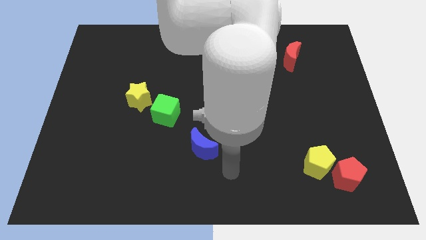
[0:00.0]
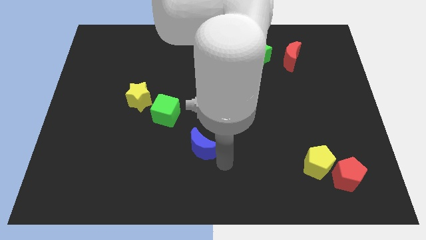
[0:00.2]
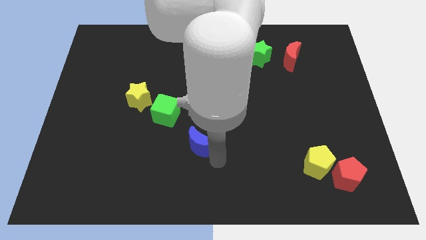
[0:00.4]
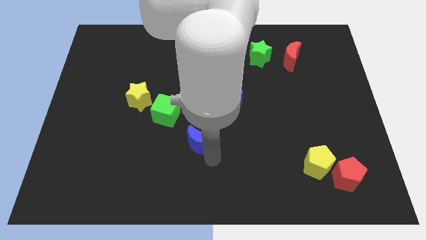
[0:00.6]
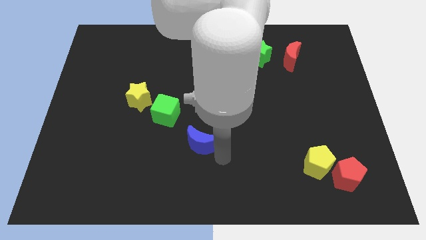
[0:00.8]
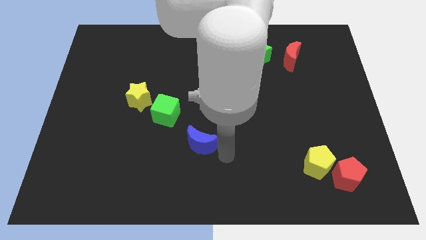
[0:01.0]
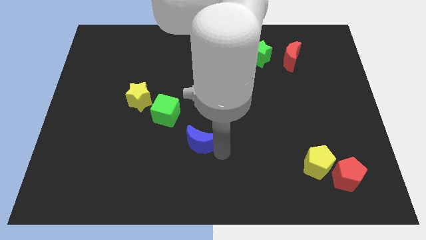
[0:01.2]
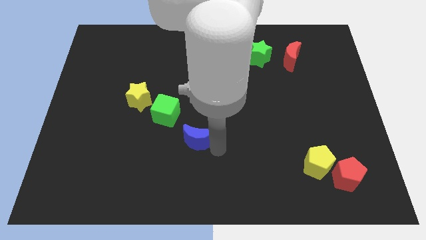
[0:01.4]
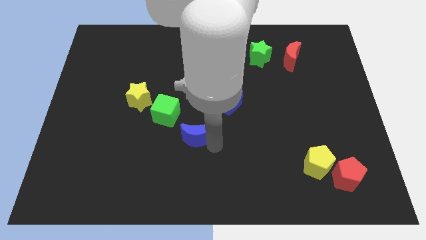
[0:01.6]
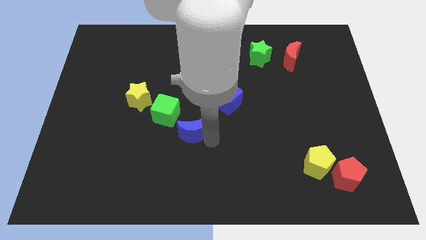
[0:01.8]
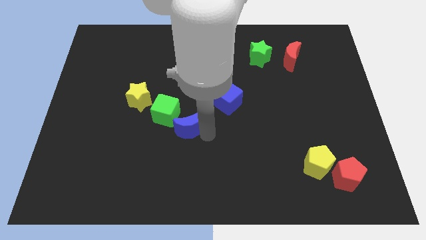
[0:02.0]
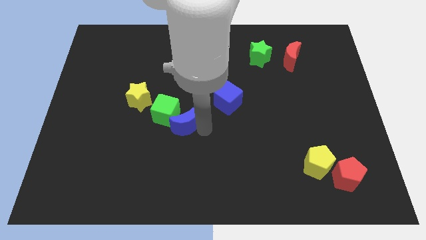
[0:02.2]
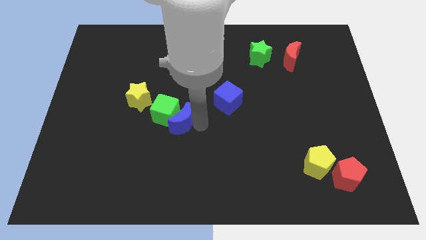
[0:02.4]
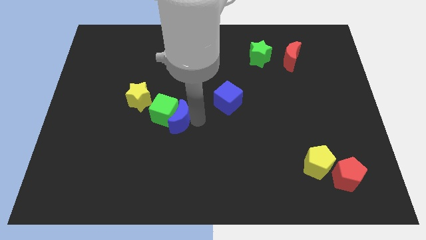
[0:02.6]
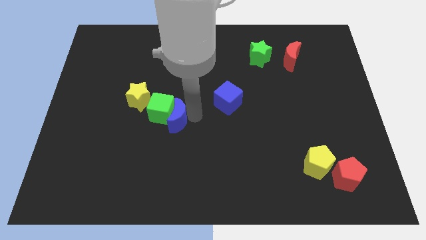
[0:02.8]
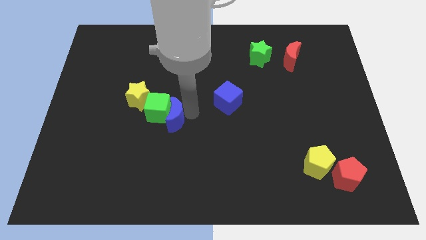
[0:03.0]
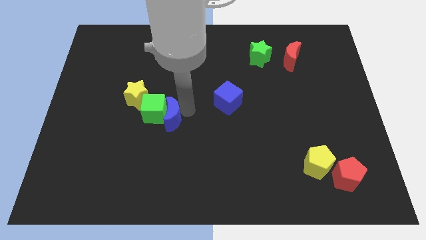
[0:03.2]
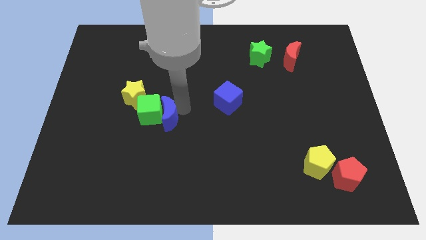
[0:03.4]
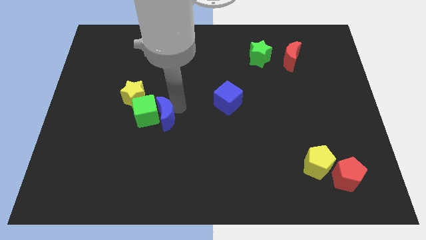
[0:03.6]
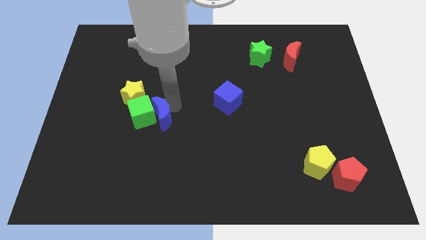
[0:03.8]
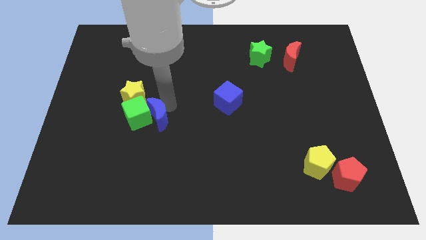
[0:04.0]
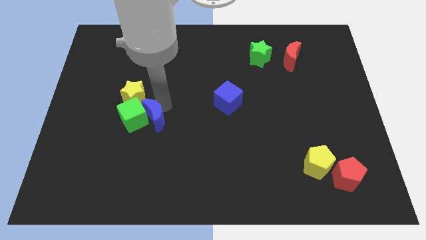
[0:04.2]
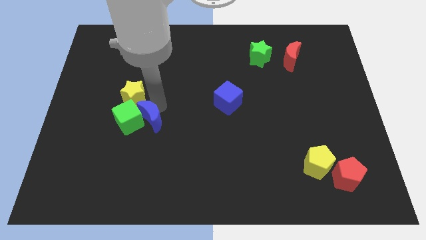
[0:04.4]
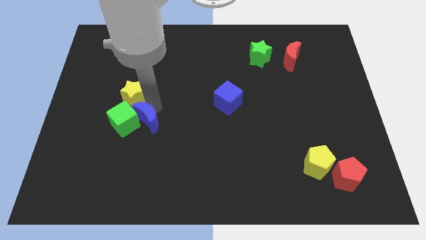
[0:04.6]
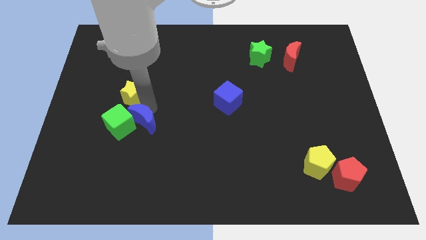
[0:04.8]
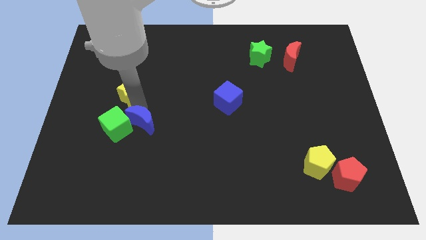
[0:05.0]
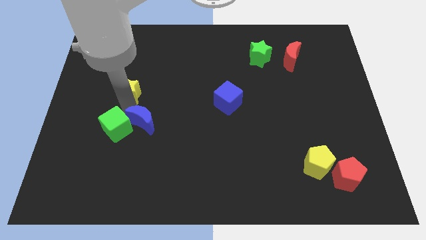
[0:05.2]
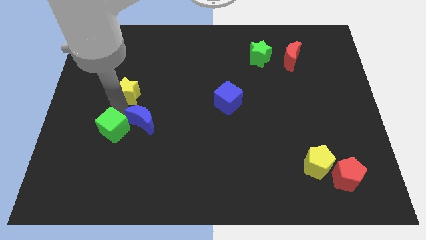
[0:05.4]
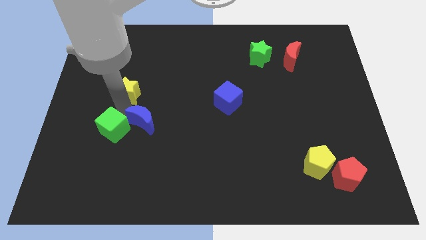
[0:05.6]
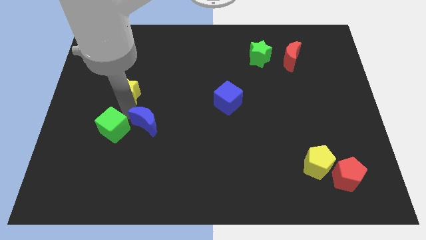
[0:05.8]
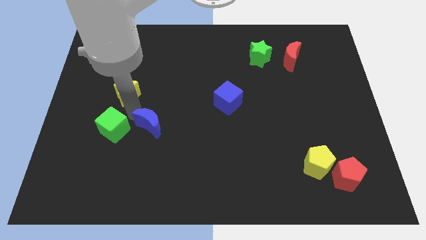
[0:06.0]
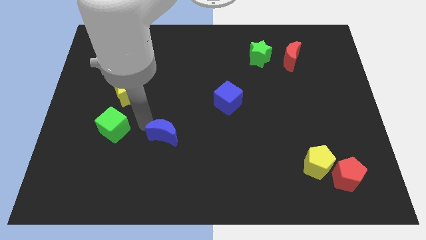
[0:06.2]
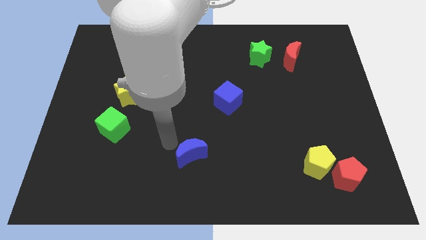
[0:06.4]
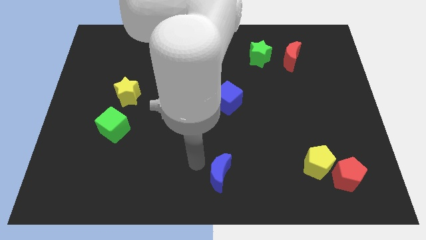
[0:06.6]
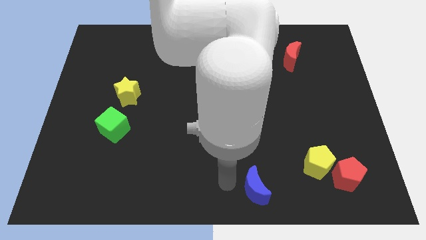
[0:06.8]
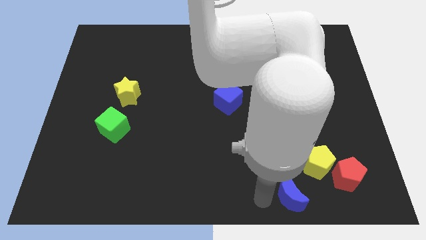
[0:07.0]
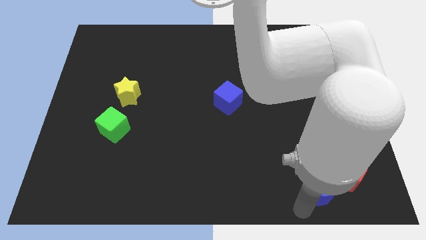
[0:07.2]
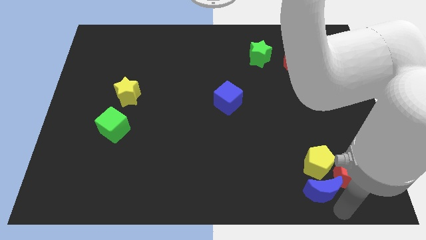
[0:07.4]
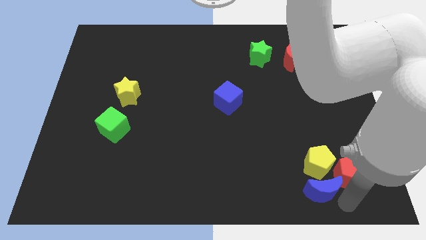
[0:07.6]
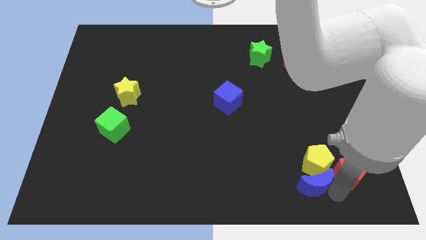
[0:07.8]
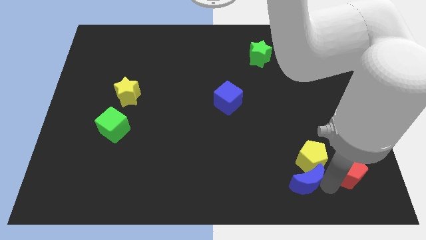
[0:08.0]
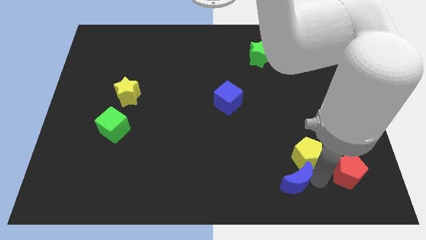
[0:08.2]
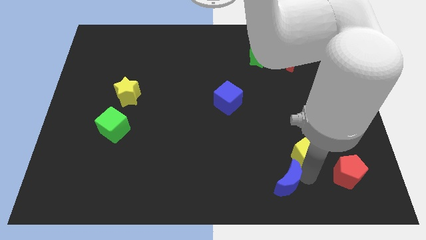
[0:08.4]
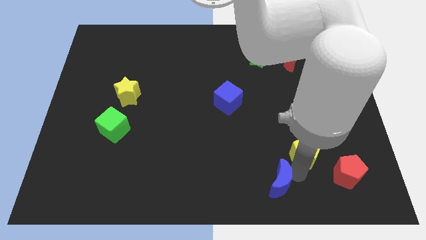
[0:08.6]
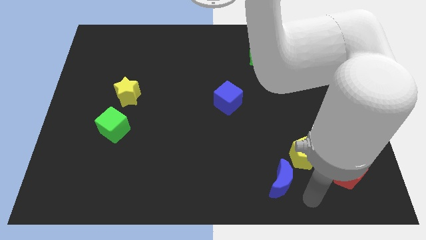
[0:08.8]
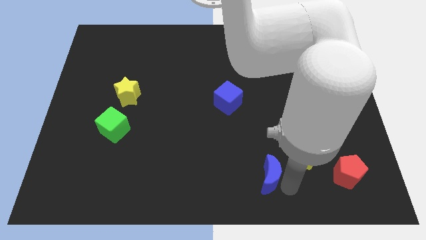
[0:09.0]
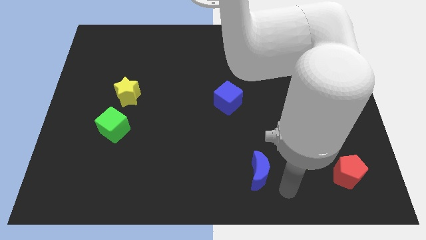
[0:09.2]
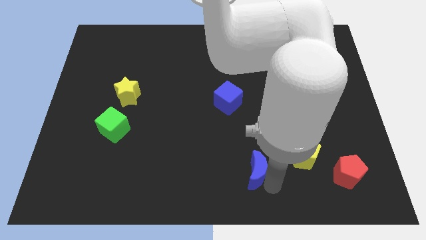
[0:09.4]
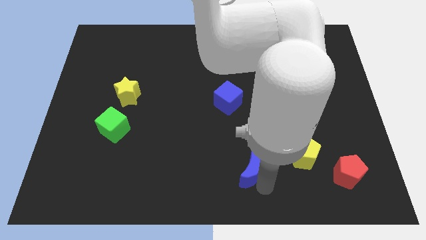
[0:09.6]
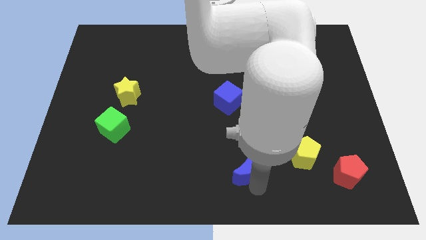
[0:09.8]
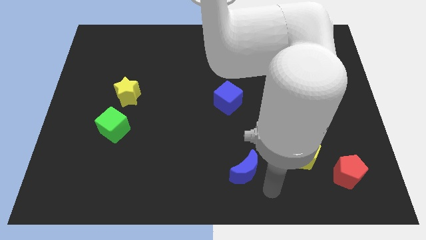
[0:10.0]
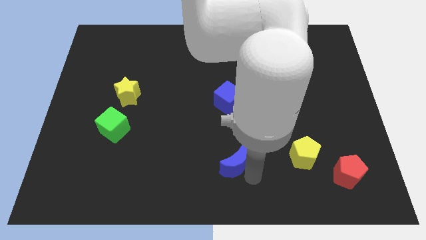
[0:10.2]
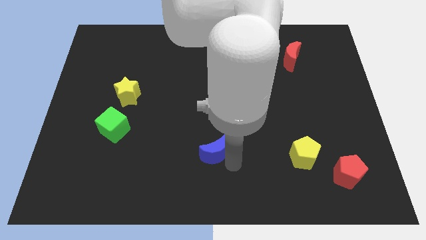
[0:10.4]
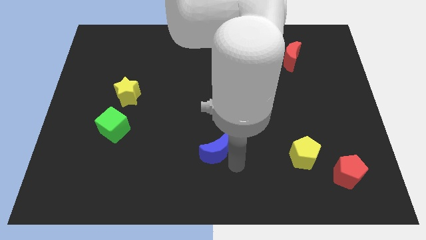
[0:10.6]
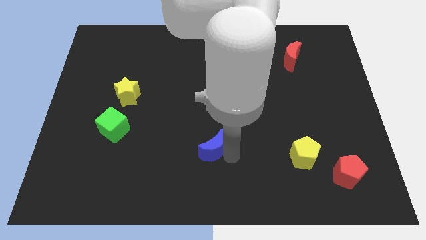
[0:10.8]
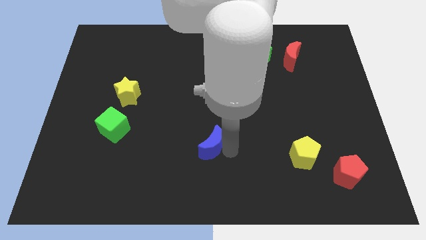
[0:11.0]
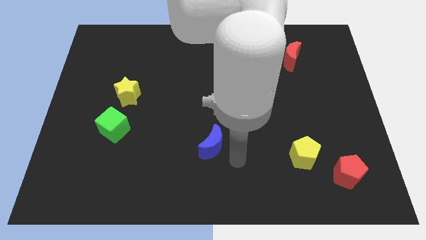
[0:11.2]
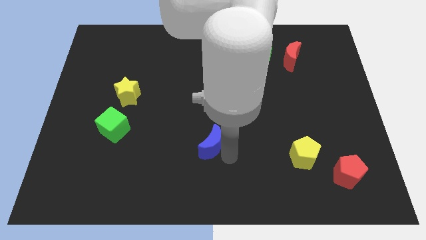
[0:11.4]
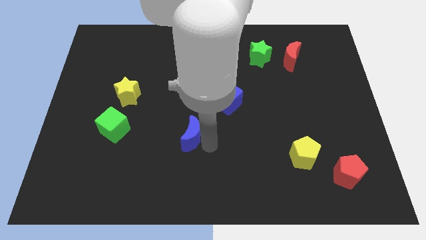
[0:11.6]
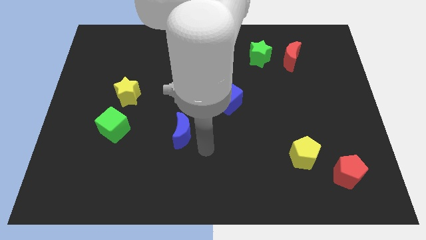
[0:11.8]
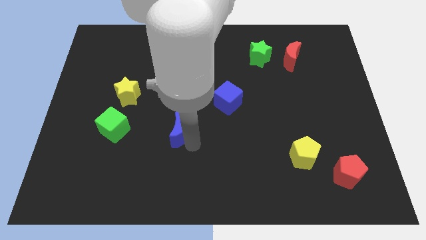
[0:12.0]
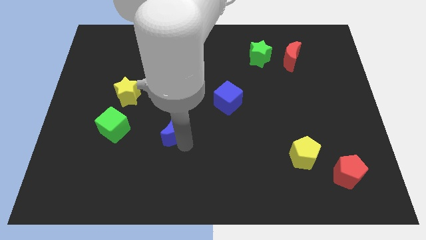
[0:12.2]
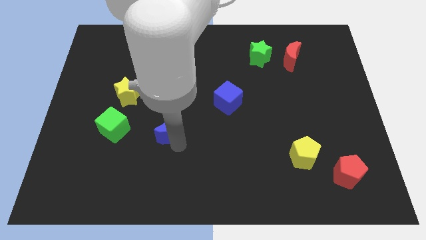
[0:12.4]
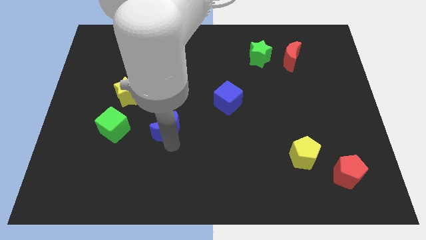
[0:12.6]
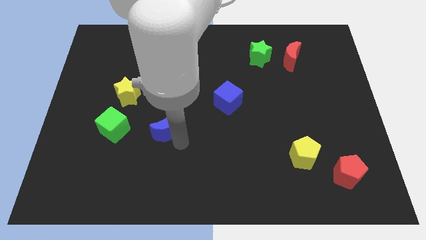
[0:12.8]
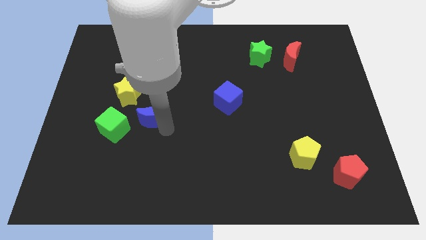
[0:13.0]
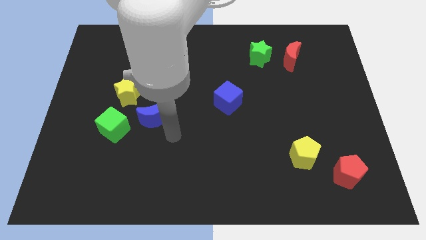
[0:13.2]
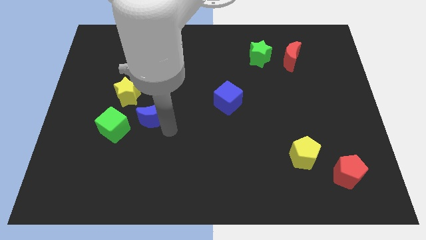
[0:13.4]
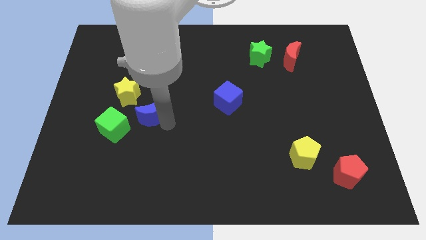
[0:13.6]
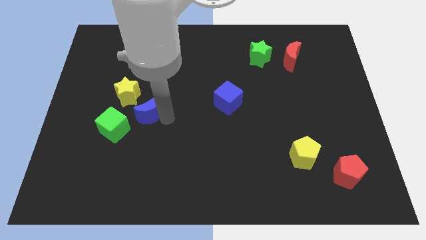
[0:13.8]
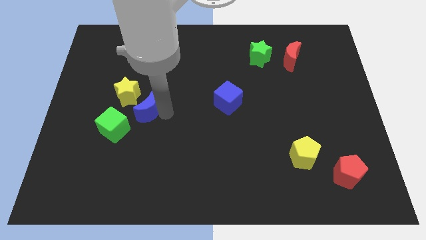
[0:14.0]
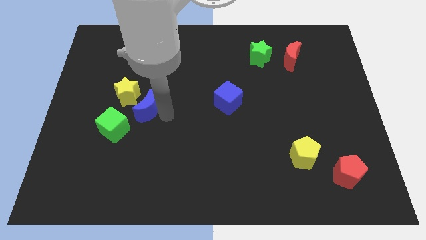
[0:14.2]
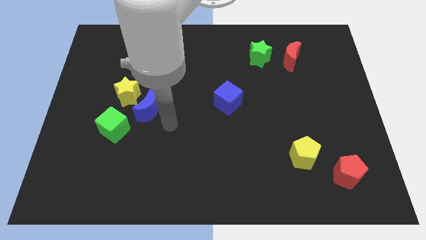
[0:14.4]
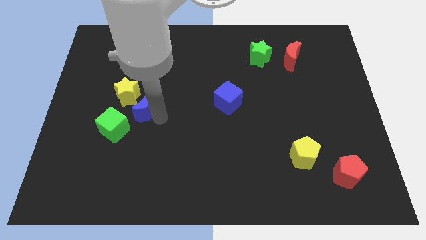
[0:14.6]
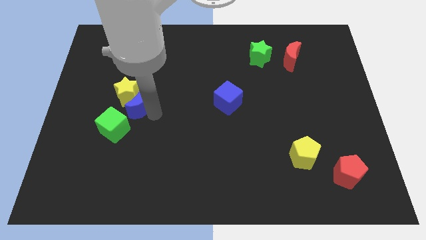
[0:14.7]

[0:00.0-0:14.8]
slide the blue moon next to the yellow star

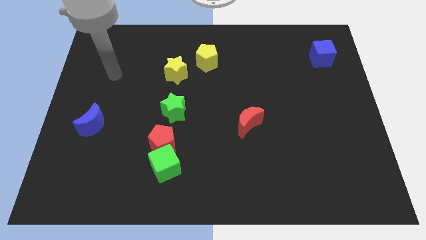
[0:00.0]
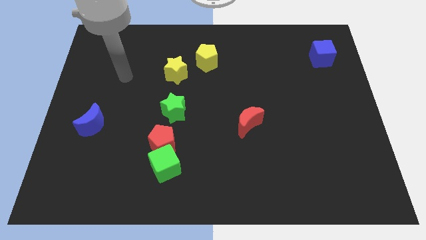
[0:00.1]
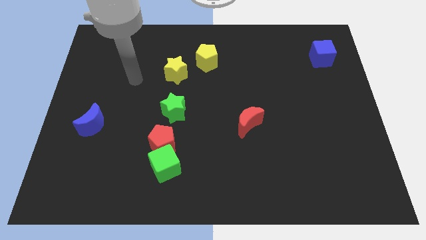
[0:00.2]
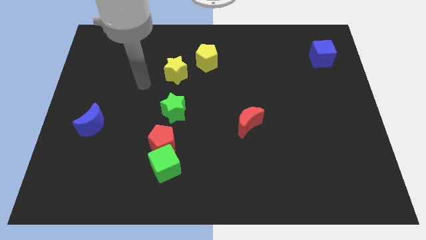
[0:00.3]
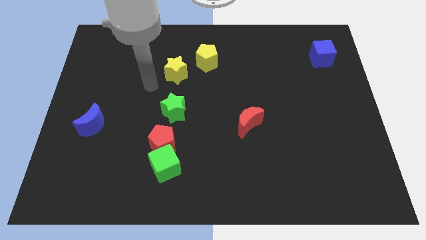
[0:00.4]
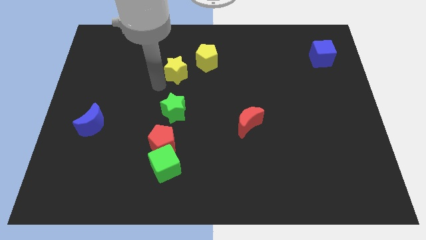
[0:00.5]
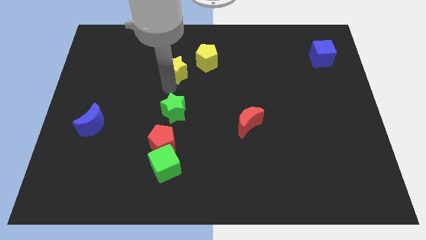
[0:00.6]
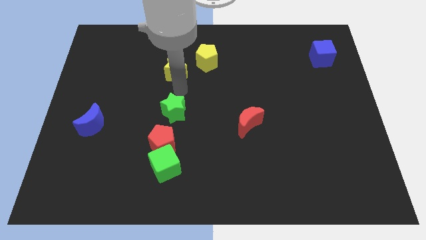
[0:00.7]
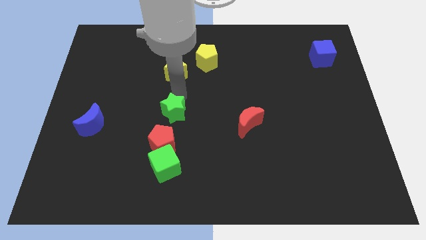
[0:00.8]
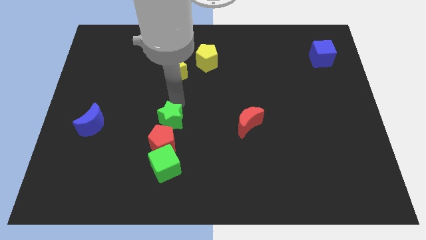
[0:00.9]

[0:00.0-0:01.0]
slide the green star close to the red pentagon
